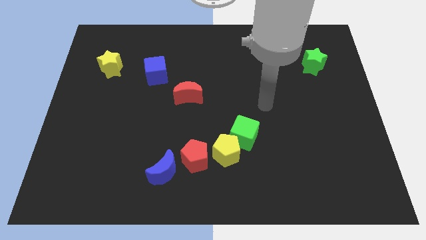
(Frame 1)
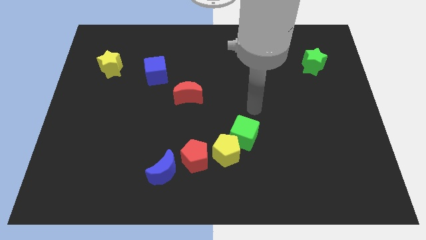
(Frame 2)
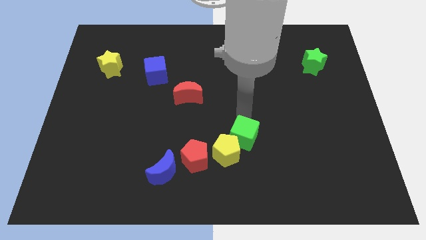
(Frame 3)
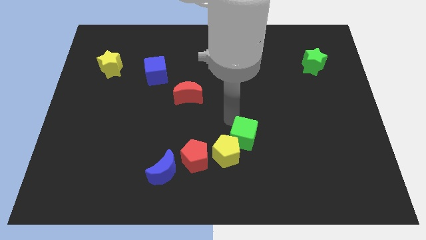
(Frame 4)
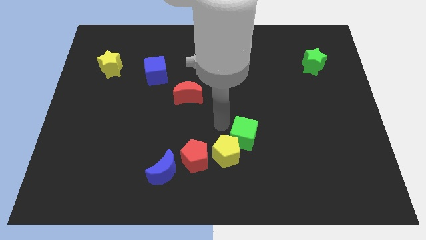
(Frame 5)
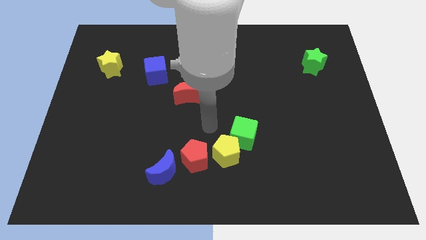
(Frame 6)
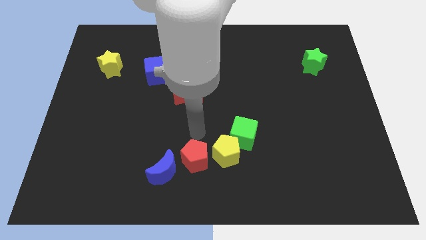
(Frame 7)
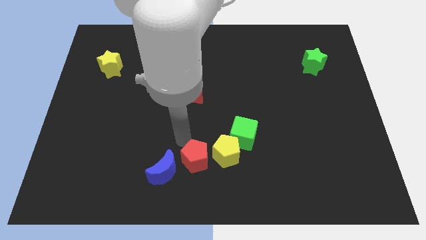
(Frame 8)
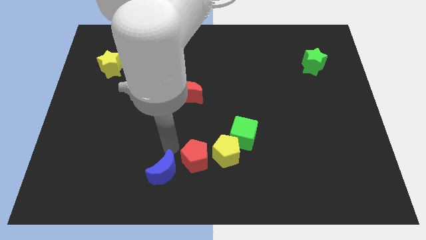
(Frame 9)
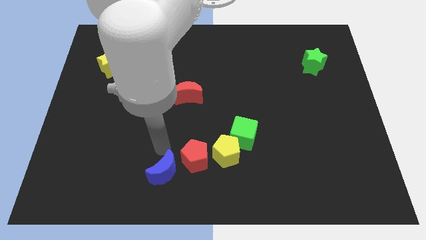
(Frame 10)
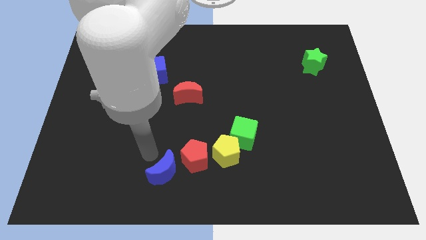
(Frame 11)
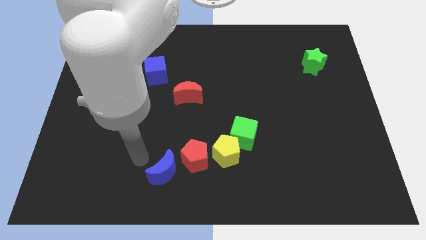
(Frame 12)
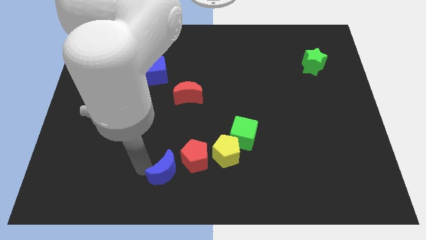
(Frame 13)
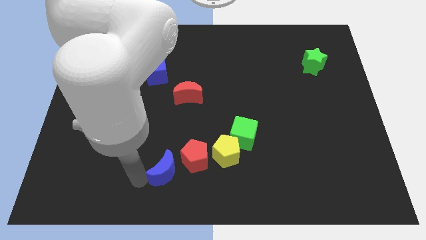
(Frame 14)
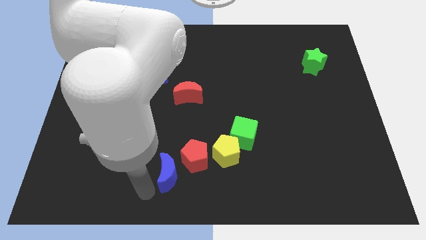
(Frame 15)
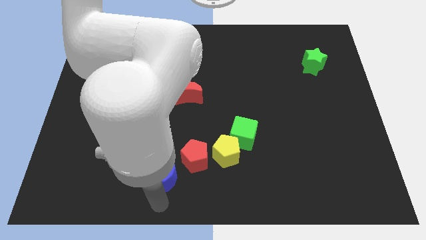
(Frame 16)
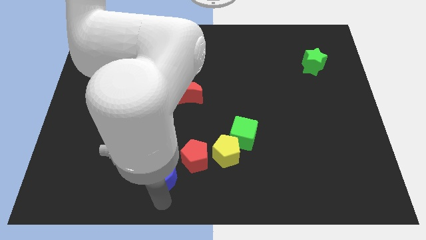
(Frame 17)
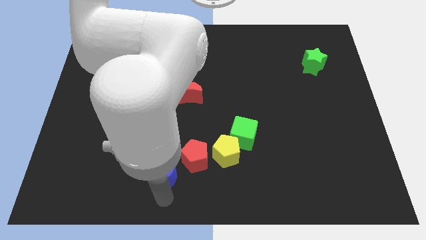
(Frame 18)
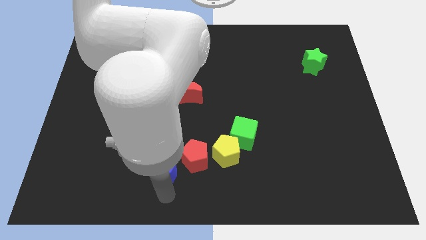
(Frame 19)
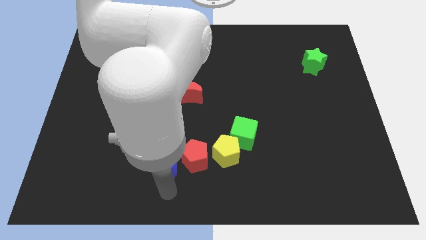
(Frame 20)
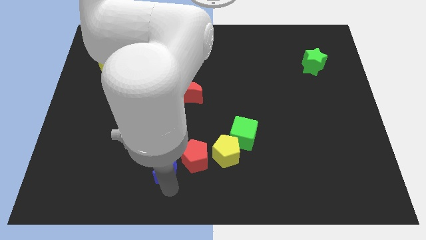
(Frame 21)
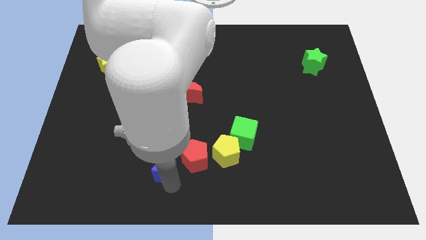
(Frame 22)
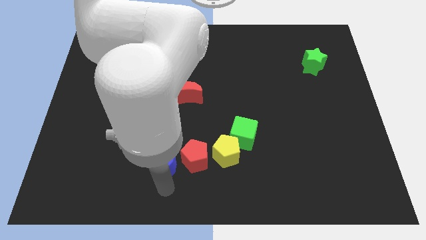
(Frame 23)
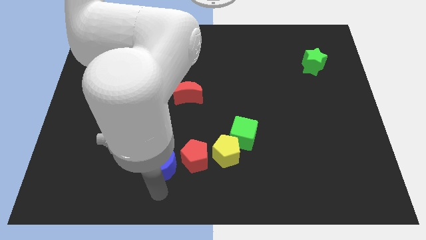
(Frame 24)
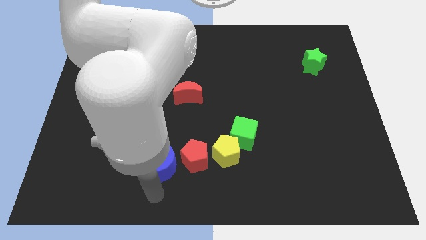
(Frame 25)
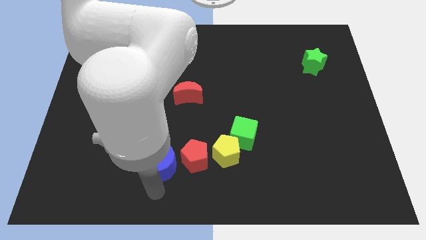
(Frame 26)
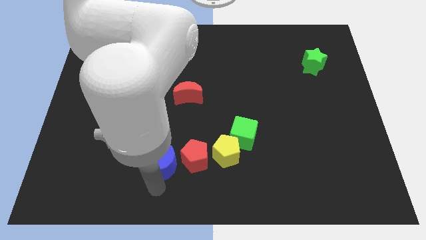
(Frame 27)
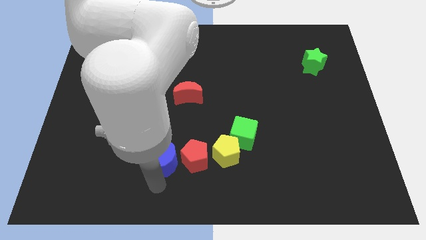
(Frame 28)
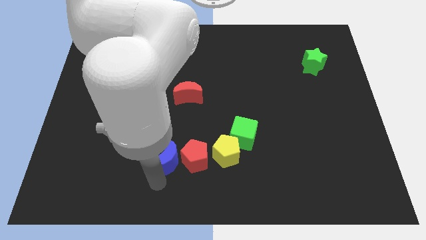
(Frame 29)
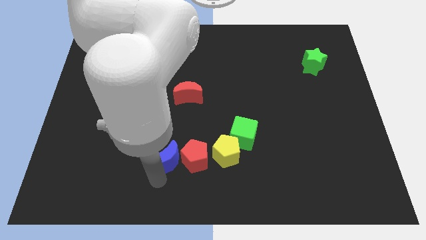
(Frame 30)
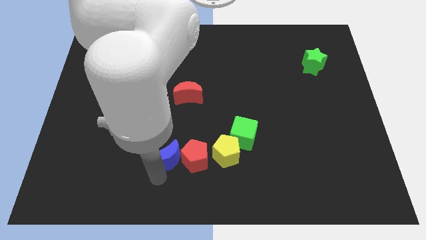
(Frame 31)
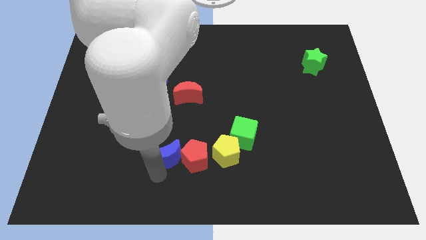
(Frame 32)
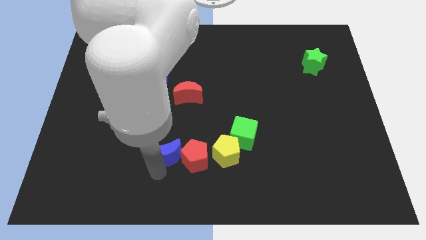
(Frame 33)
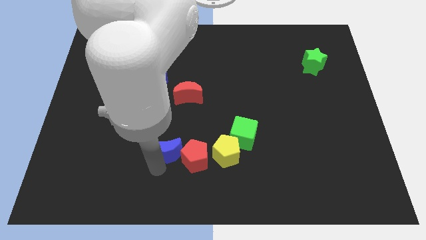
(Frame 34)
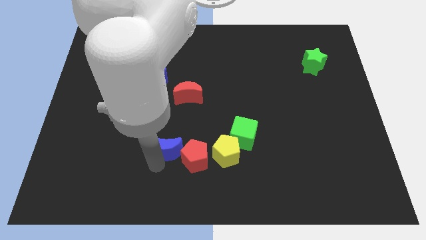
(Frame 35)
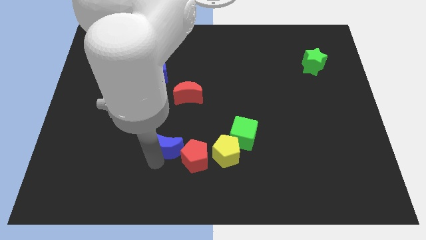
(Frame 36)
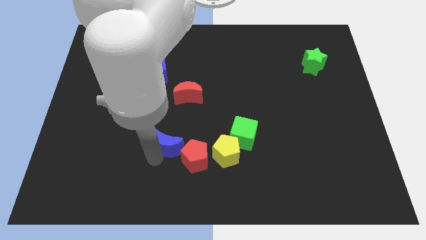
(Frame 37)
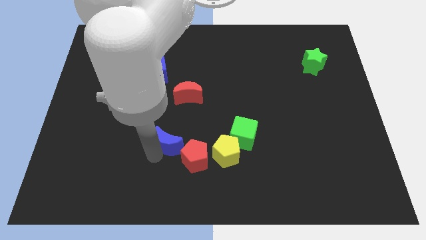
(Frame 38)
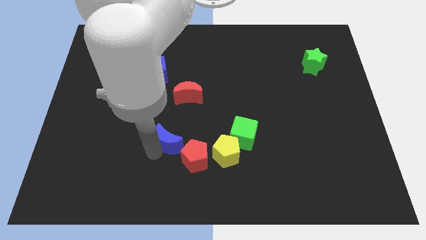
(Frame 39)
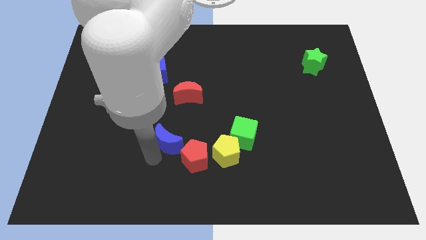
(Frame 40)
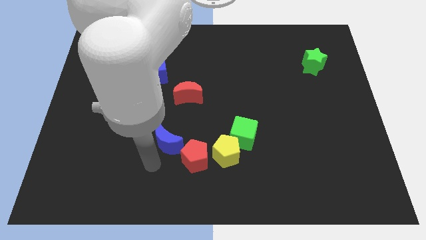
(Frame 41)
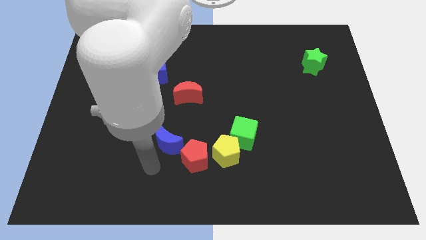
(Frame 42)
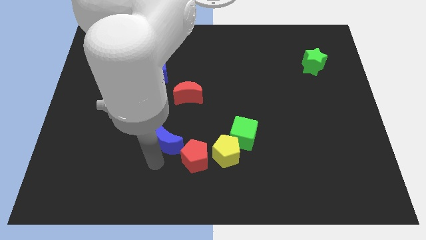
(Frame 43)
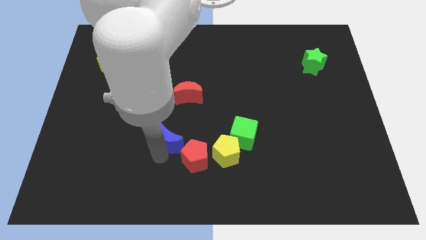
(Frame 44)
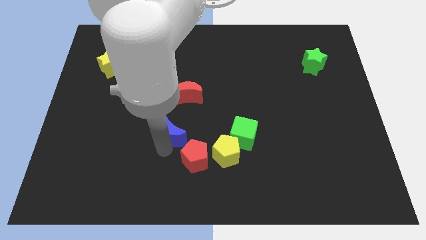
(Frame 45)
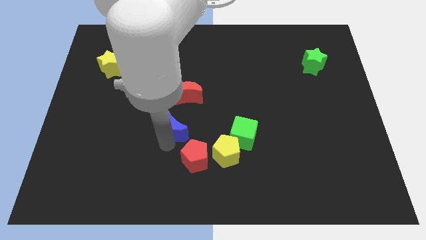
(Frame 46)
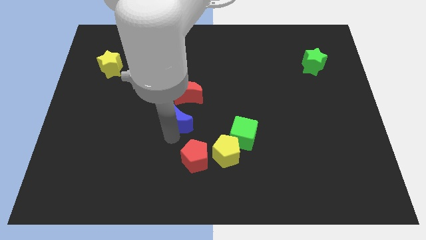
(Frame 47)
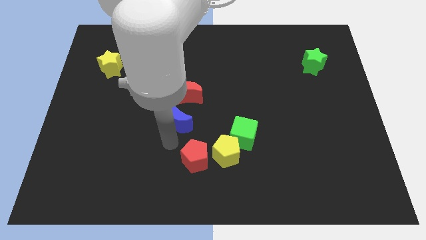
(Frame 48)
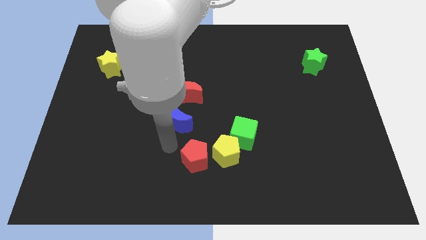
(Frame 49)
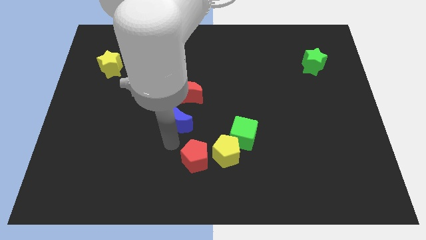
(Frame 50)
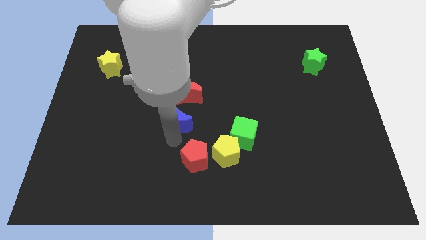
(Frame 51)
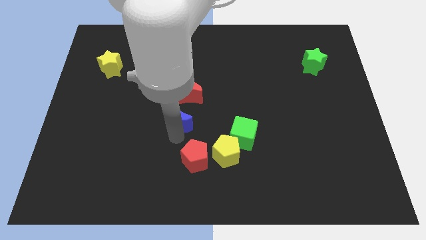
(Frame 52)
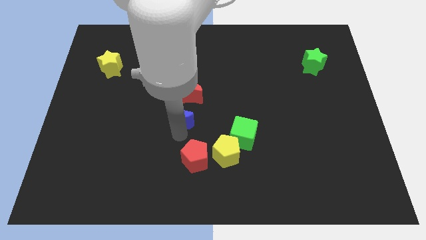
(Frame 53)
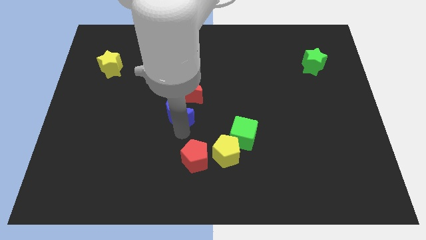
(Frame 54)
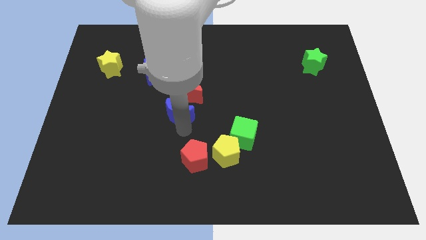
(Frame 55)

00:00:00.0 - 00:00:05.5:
push the blue moon next to the red moon

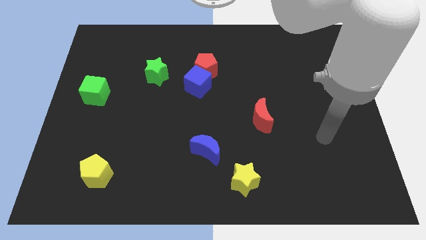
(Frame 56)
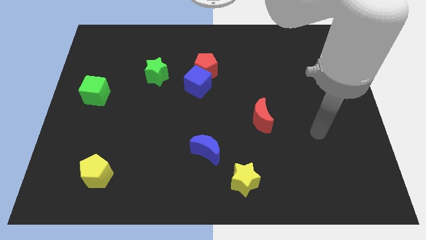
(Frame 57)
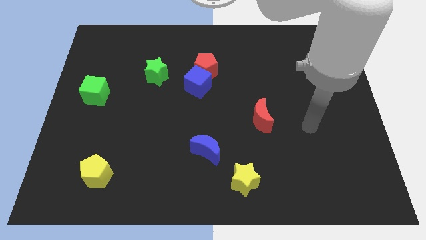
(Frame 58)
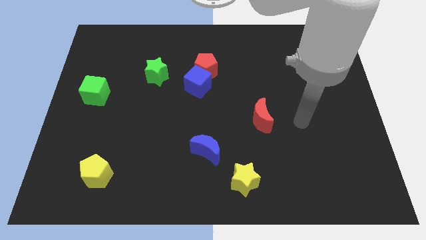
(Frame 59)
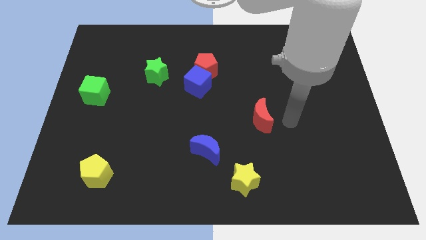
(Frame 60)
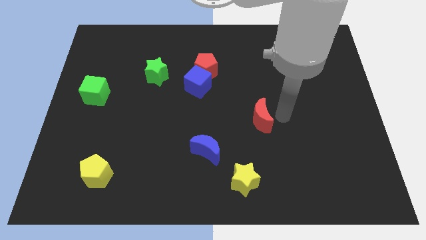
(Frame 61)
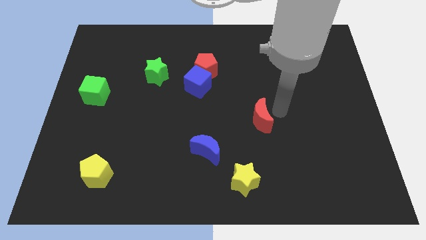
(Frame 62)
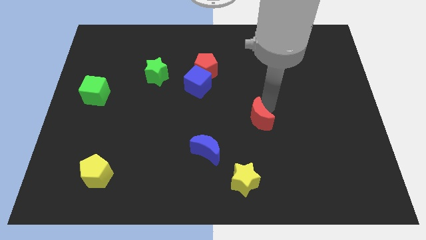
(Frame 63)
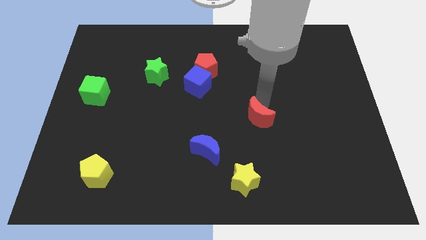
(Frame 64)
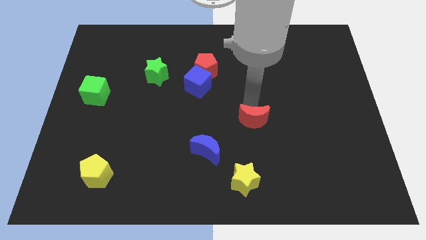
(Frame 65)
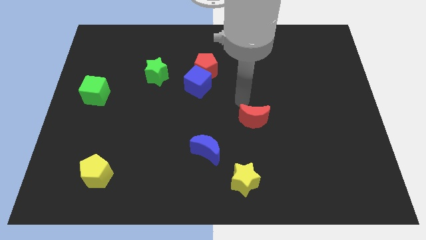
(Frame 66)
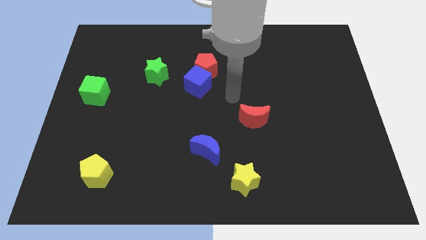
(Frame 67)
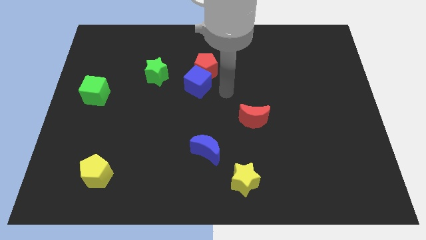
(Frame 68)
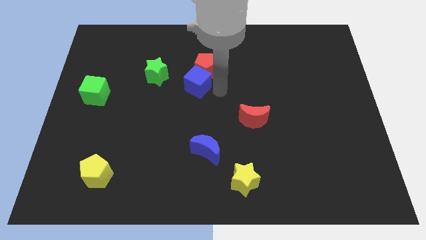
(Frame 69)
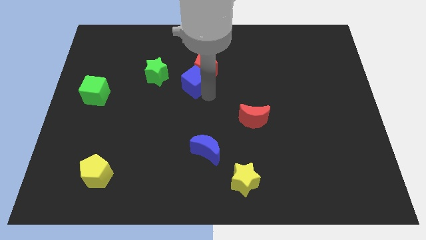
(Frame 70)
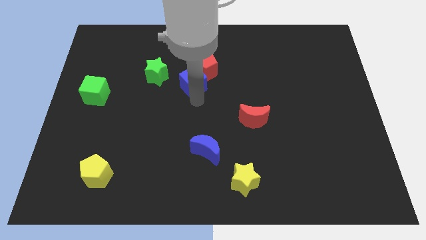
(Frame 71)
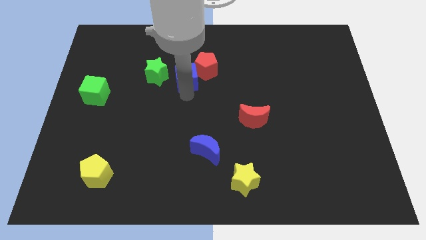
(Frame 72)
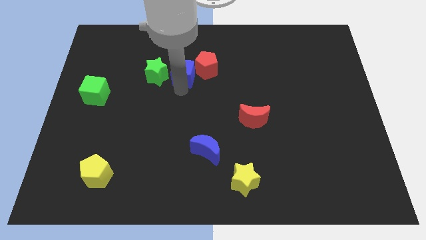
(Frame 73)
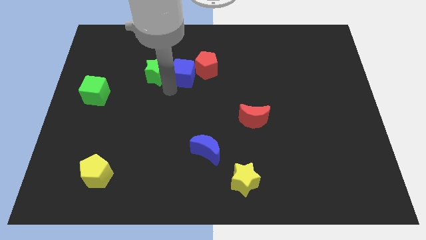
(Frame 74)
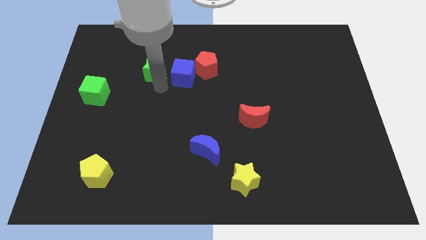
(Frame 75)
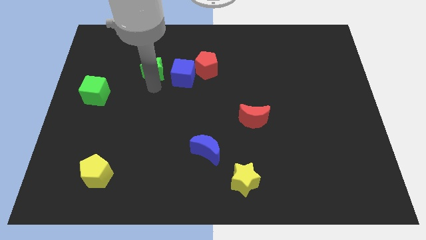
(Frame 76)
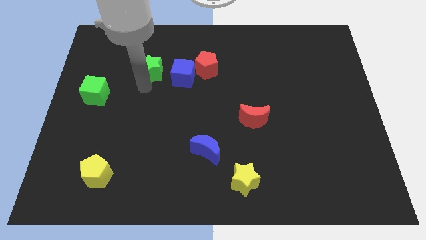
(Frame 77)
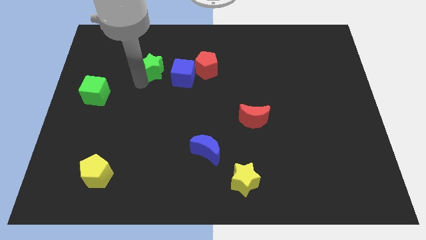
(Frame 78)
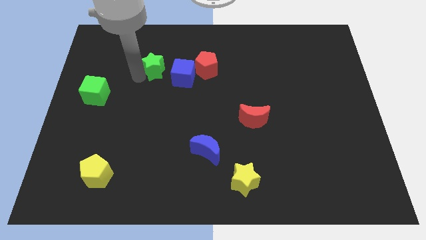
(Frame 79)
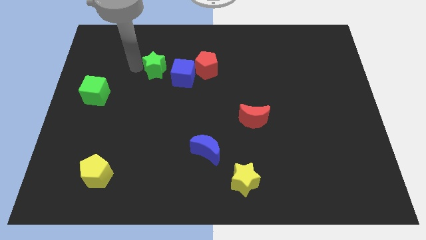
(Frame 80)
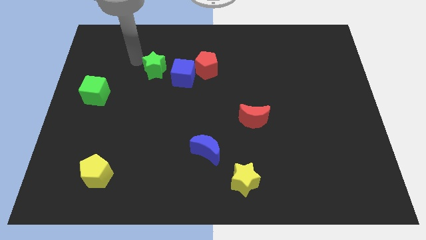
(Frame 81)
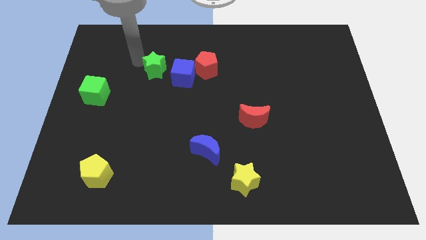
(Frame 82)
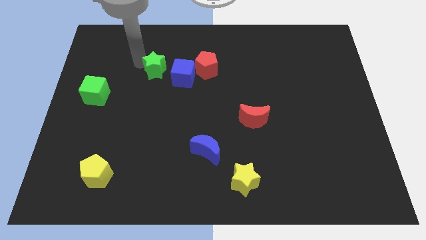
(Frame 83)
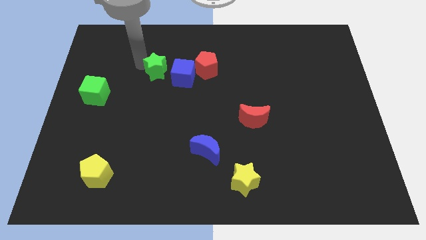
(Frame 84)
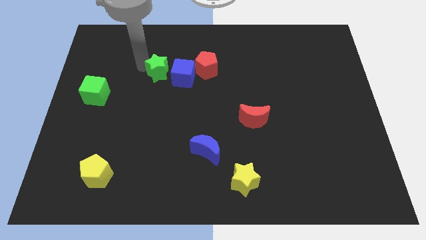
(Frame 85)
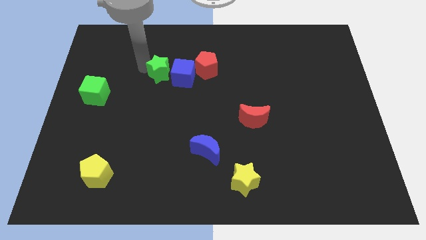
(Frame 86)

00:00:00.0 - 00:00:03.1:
move the green star to the blue cube
